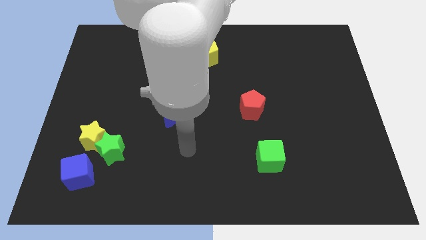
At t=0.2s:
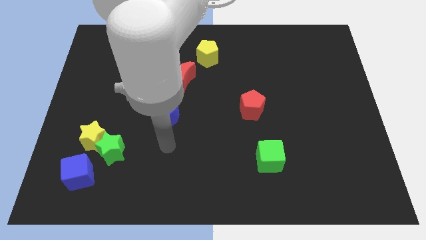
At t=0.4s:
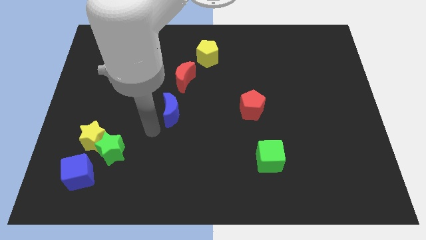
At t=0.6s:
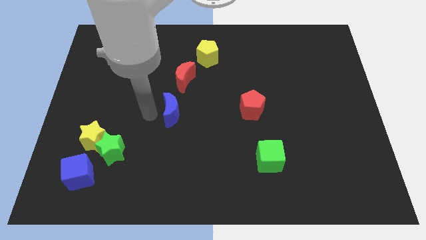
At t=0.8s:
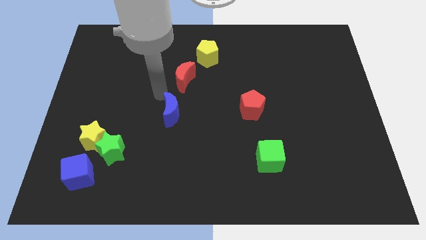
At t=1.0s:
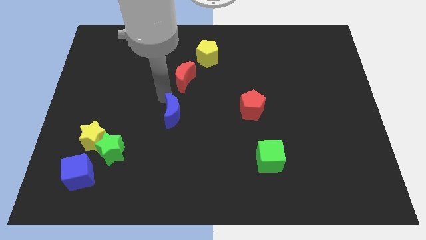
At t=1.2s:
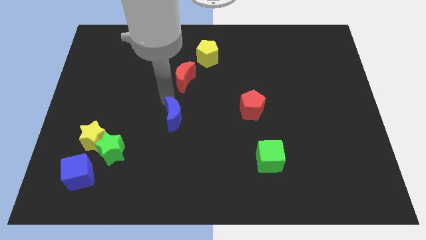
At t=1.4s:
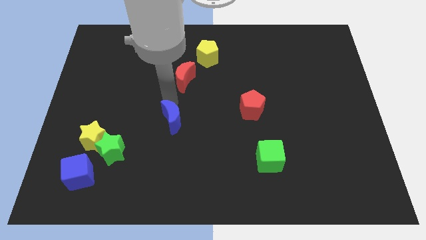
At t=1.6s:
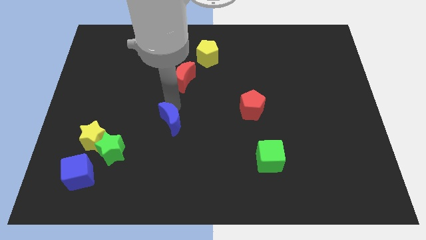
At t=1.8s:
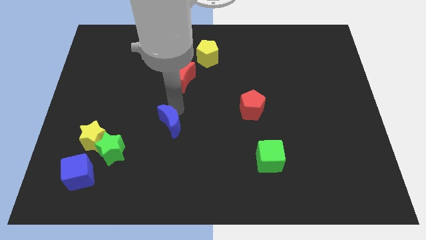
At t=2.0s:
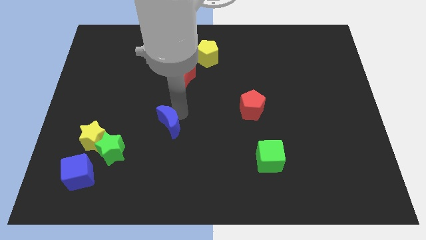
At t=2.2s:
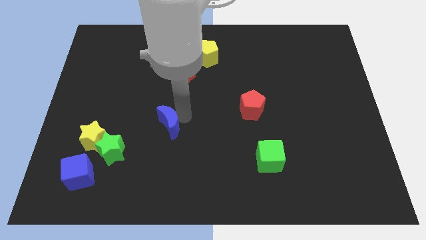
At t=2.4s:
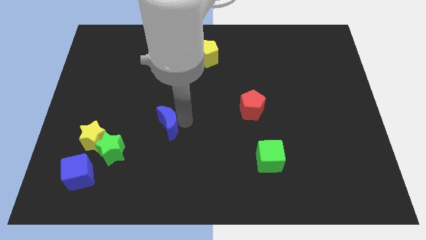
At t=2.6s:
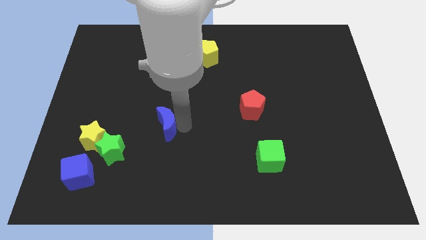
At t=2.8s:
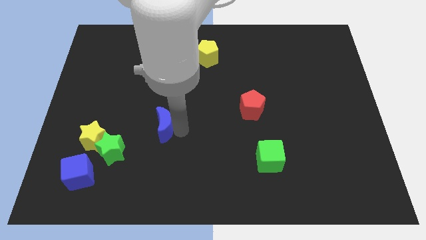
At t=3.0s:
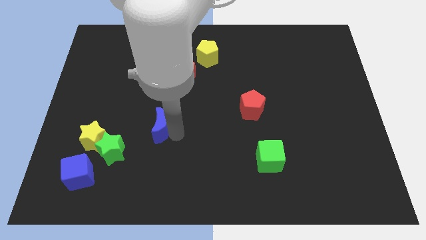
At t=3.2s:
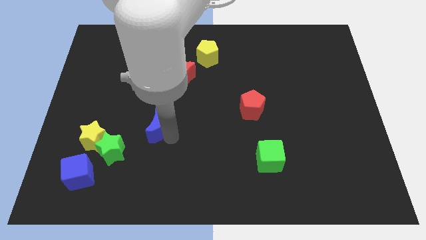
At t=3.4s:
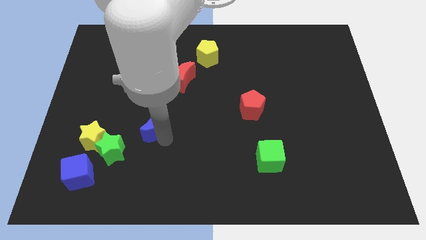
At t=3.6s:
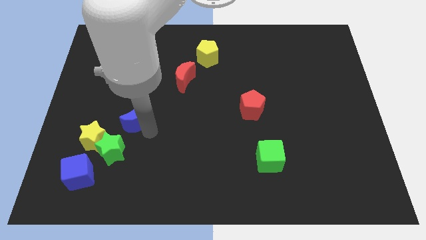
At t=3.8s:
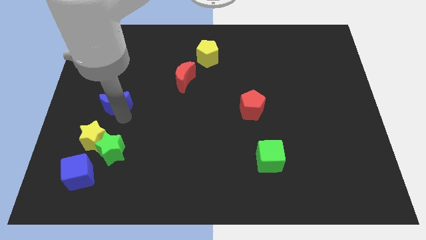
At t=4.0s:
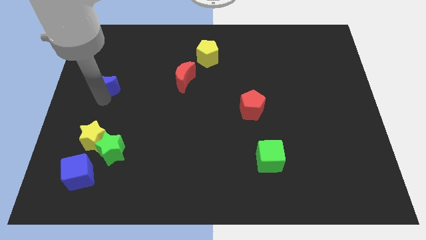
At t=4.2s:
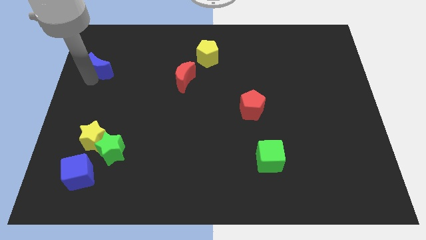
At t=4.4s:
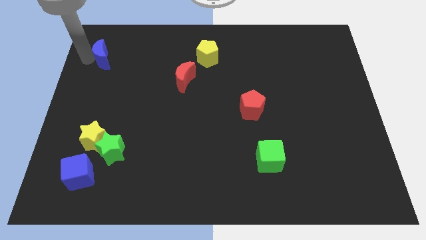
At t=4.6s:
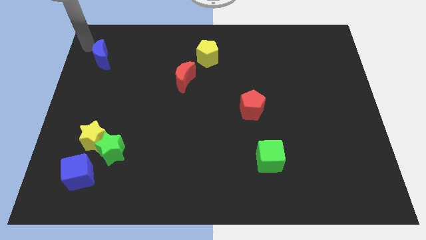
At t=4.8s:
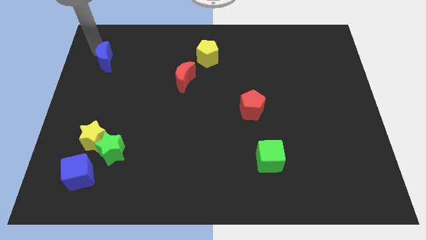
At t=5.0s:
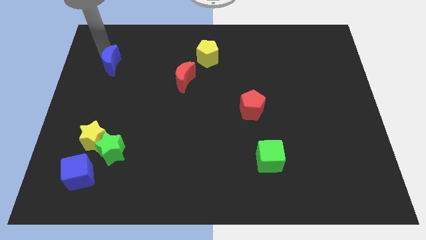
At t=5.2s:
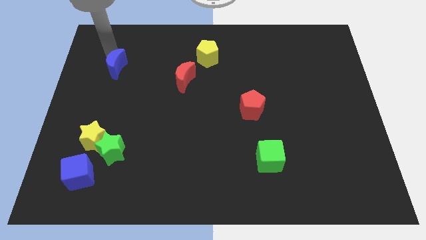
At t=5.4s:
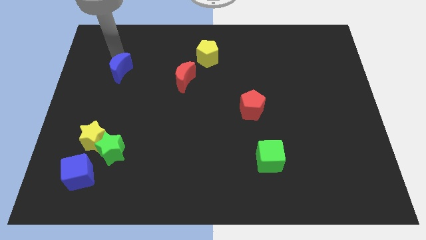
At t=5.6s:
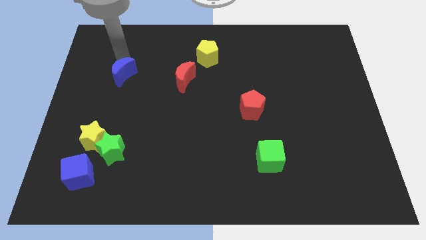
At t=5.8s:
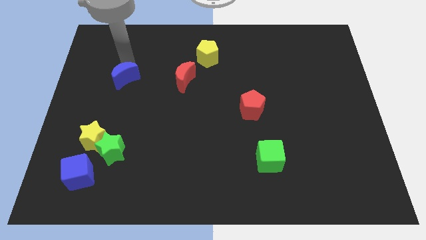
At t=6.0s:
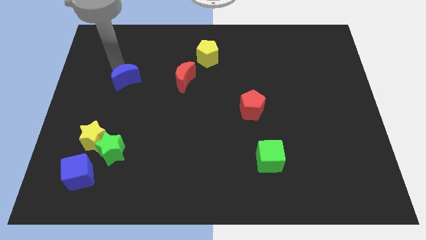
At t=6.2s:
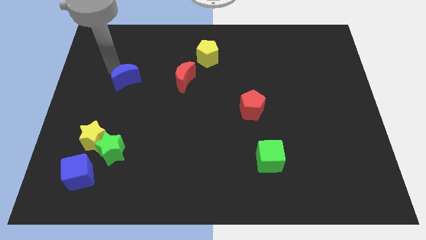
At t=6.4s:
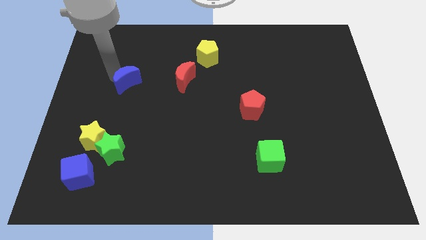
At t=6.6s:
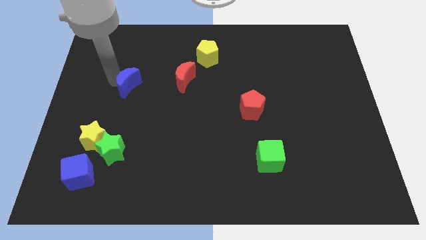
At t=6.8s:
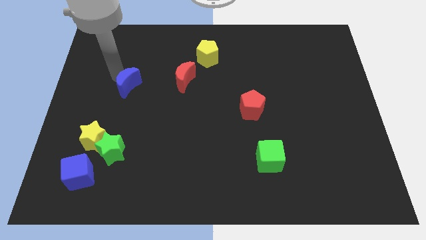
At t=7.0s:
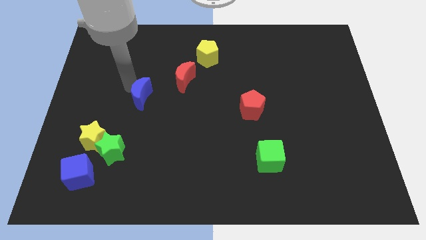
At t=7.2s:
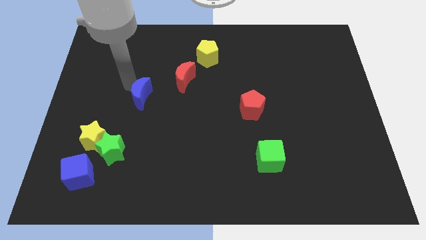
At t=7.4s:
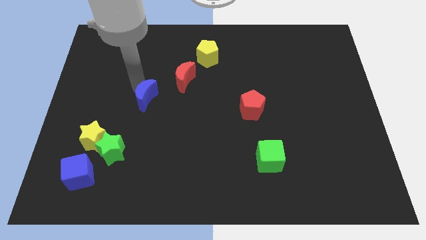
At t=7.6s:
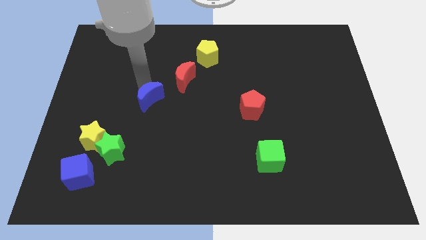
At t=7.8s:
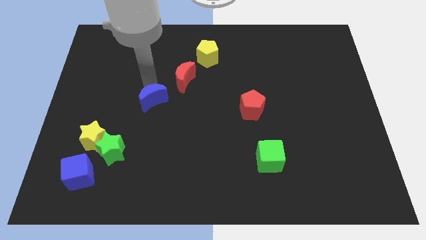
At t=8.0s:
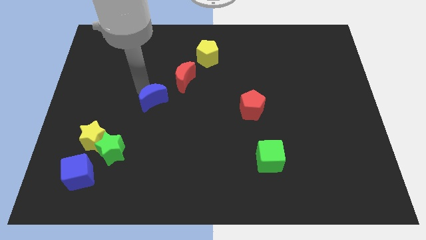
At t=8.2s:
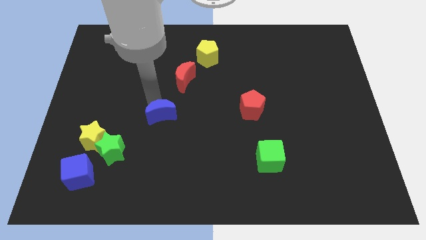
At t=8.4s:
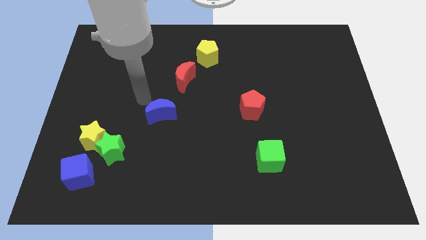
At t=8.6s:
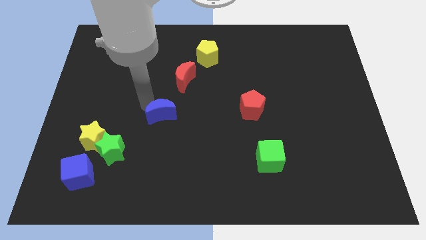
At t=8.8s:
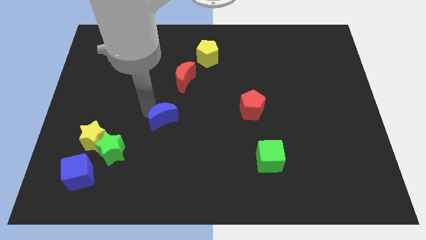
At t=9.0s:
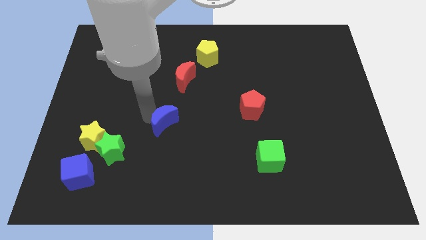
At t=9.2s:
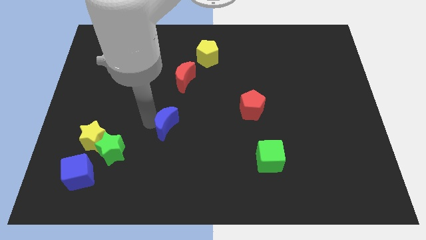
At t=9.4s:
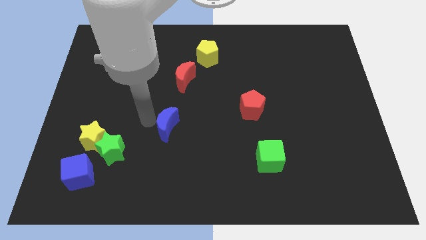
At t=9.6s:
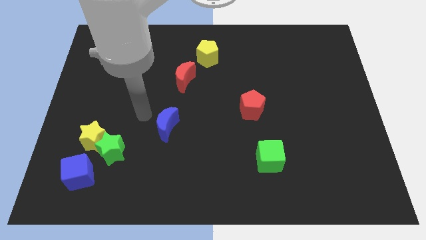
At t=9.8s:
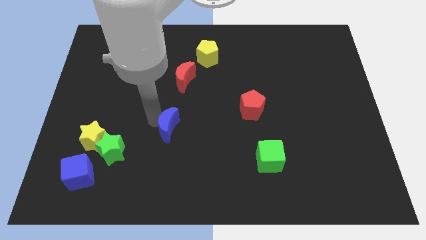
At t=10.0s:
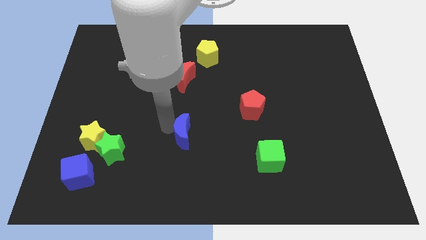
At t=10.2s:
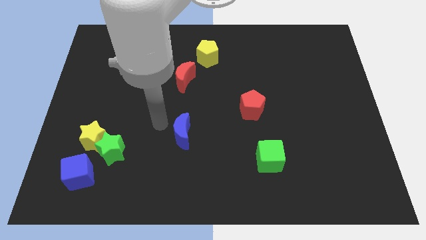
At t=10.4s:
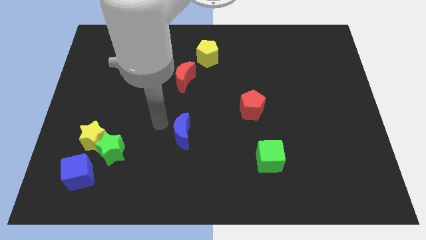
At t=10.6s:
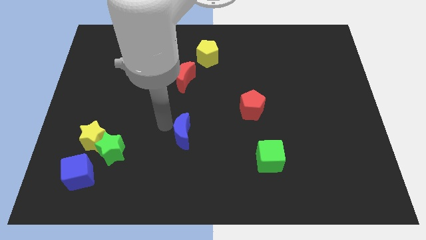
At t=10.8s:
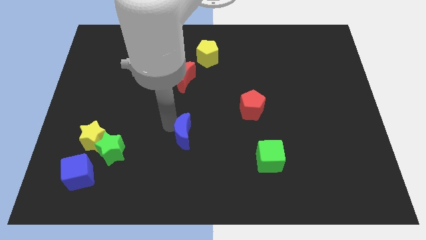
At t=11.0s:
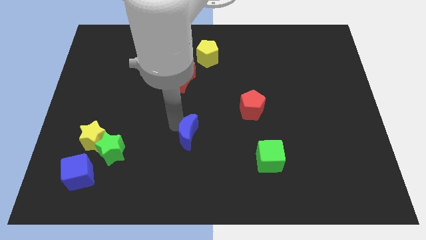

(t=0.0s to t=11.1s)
slightly slide the blue moon down and to the right diagonally

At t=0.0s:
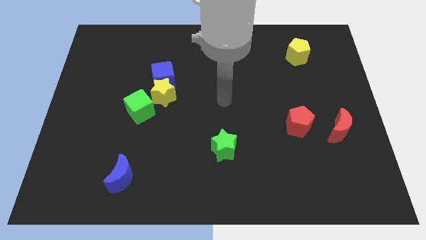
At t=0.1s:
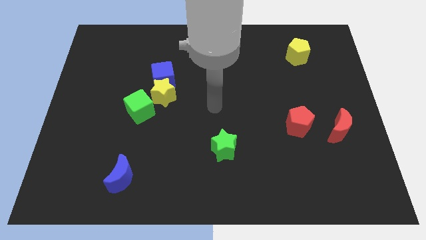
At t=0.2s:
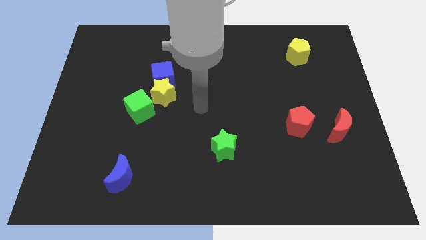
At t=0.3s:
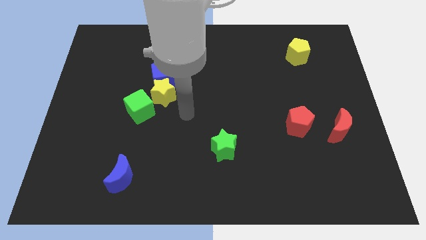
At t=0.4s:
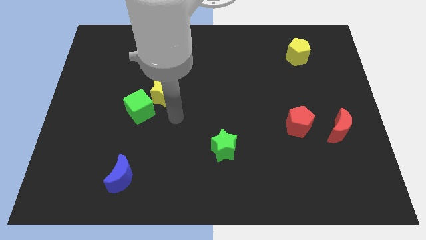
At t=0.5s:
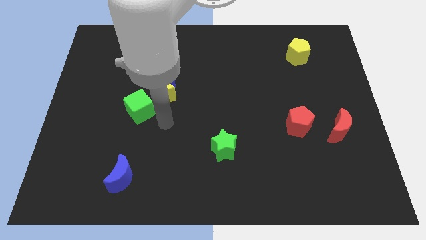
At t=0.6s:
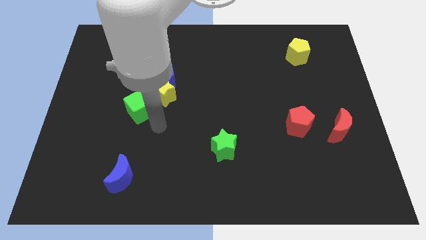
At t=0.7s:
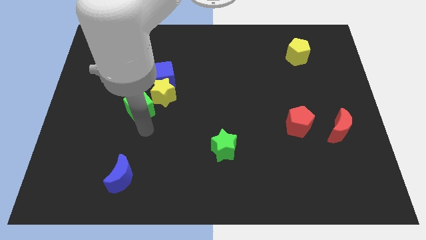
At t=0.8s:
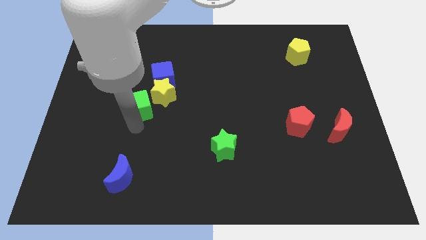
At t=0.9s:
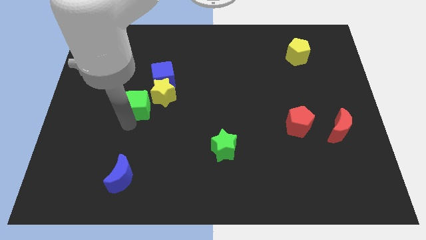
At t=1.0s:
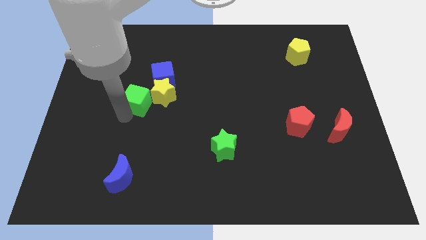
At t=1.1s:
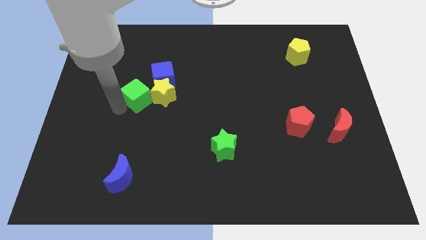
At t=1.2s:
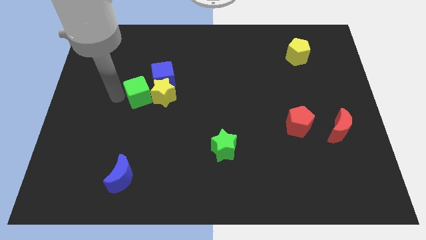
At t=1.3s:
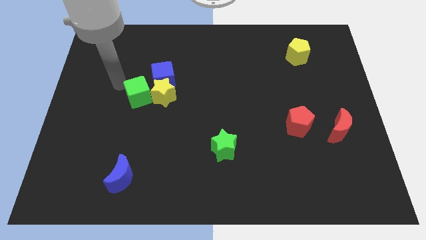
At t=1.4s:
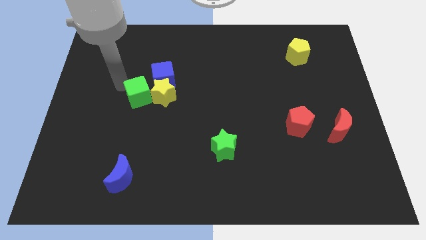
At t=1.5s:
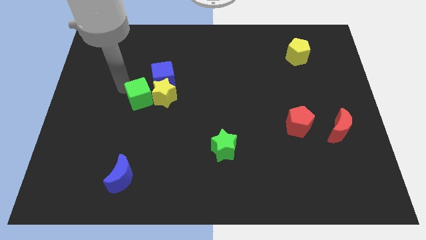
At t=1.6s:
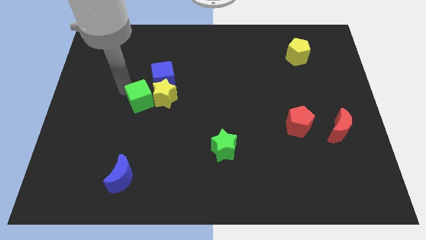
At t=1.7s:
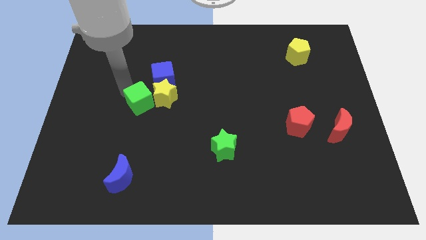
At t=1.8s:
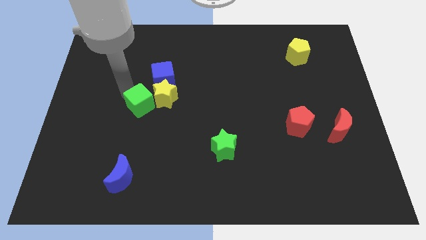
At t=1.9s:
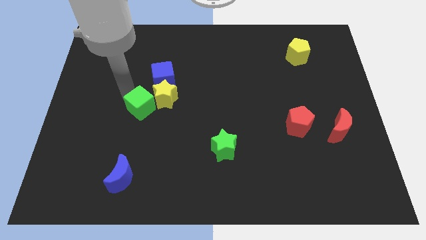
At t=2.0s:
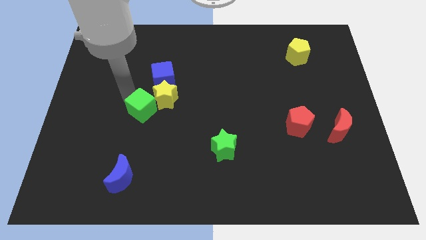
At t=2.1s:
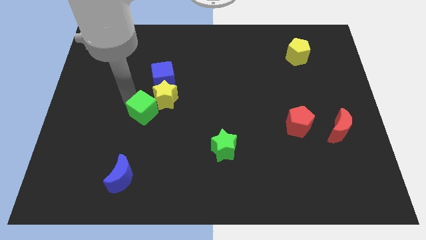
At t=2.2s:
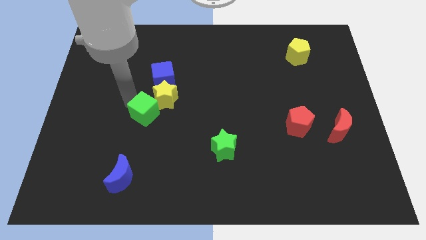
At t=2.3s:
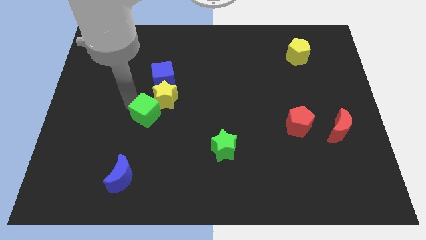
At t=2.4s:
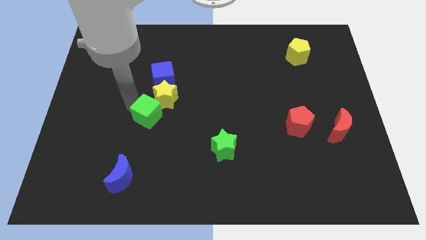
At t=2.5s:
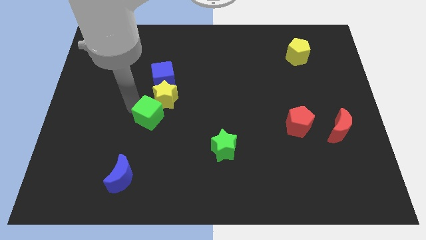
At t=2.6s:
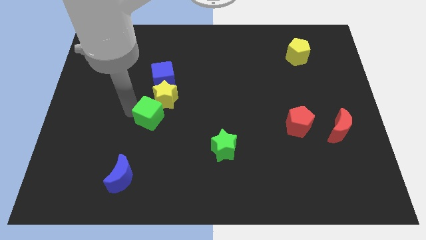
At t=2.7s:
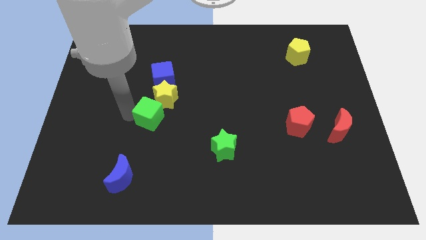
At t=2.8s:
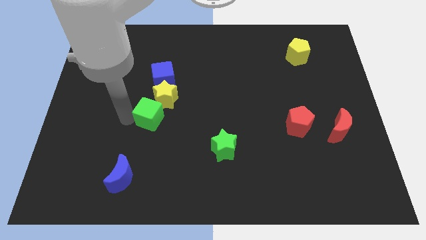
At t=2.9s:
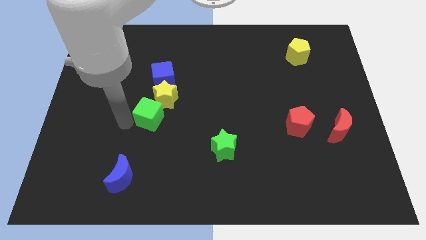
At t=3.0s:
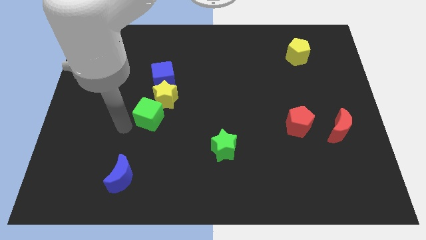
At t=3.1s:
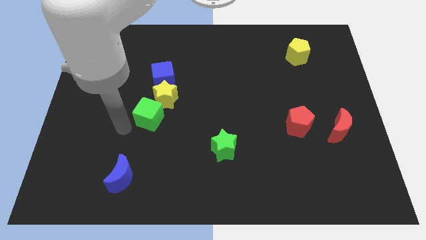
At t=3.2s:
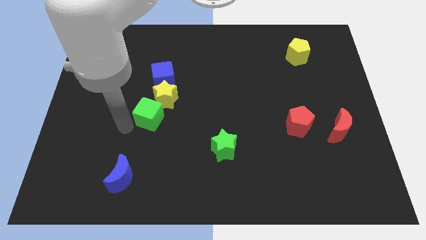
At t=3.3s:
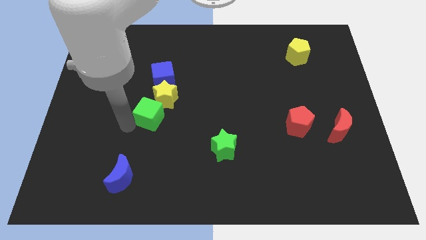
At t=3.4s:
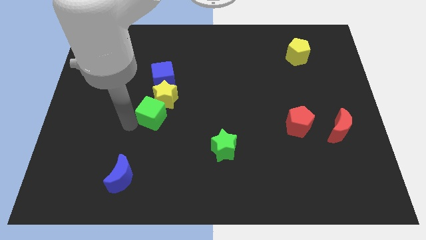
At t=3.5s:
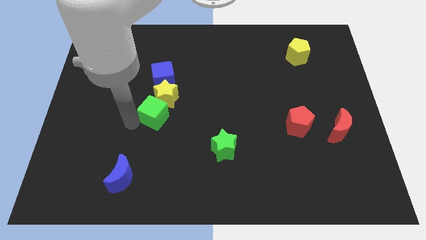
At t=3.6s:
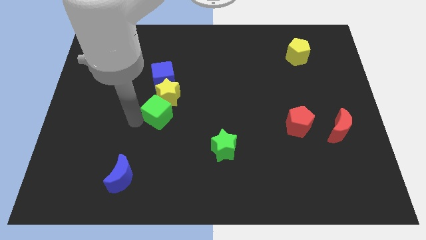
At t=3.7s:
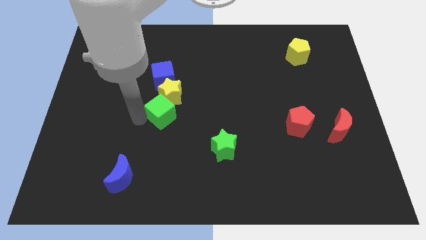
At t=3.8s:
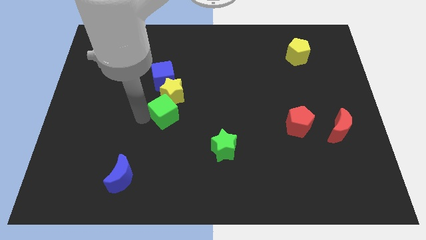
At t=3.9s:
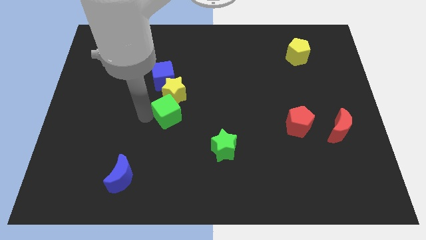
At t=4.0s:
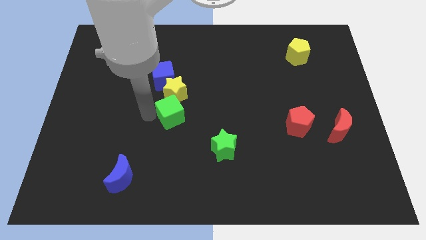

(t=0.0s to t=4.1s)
slightly push the green cube right
